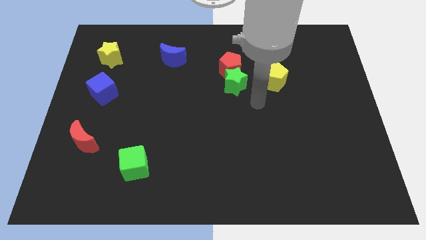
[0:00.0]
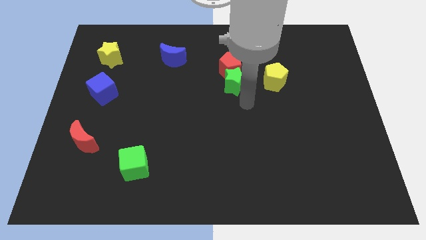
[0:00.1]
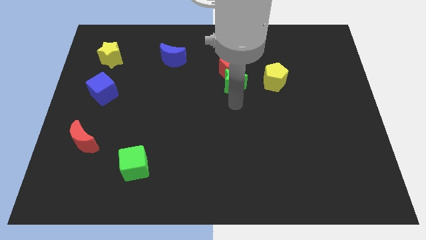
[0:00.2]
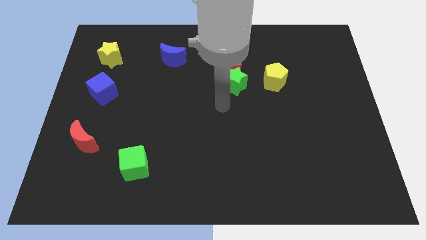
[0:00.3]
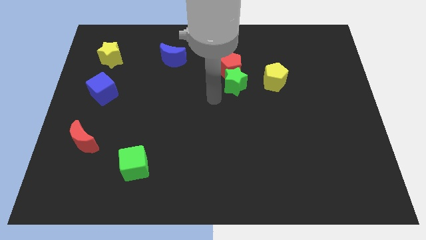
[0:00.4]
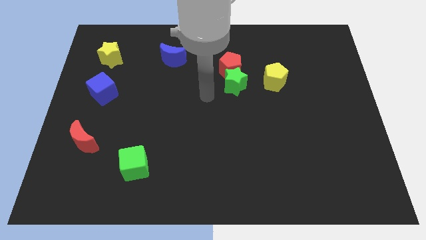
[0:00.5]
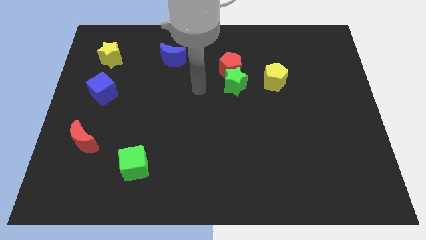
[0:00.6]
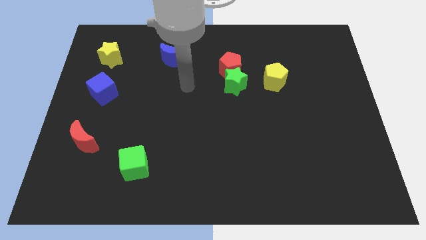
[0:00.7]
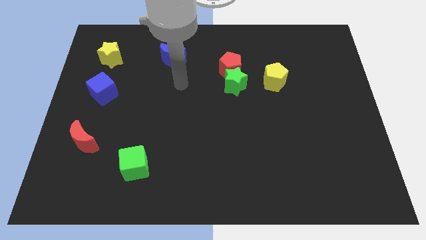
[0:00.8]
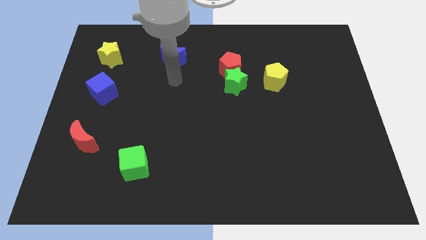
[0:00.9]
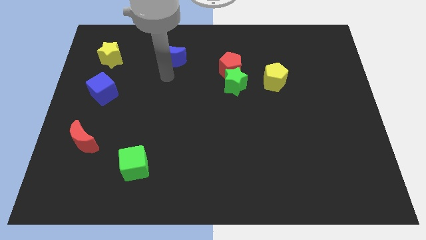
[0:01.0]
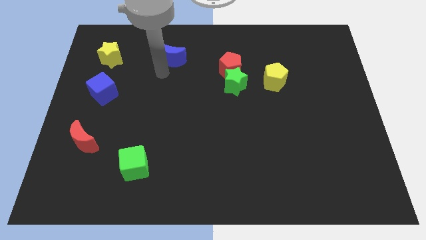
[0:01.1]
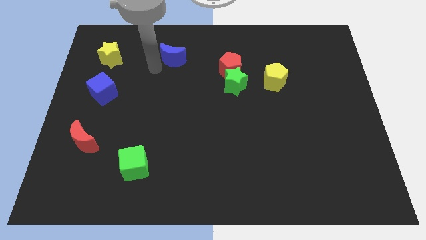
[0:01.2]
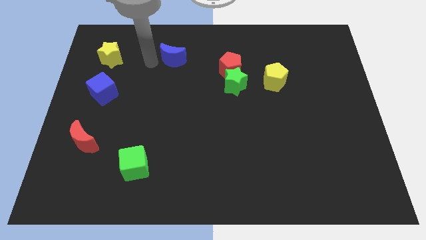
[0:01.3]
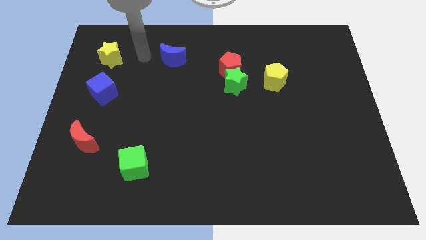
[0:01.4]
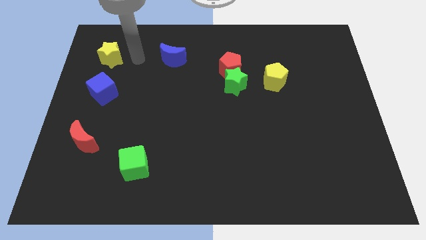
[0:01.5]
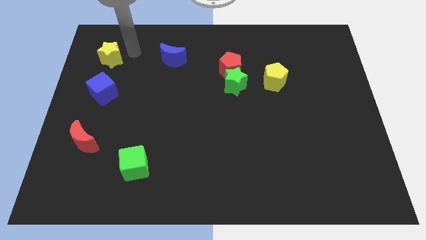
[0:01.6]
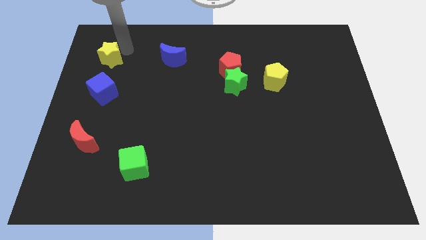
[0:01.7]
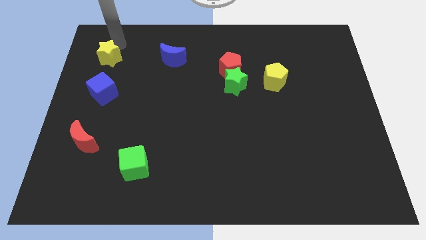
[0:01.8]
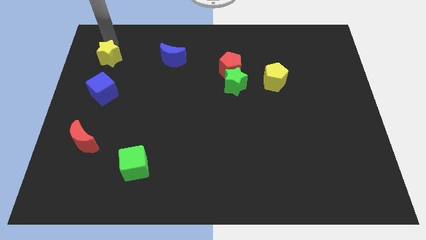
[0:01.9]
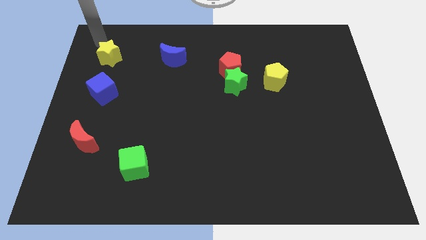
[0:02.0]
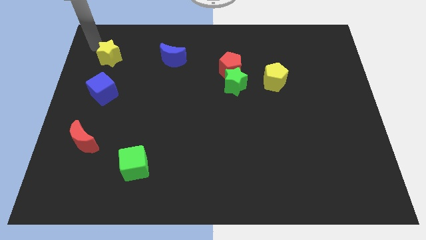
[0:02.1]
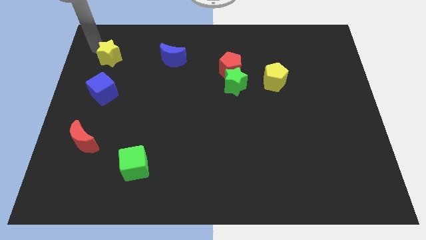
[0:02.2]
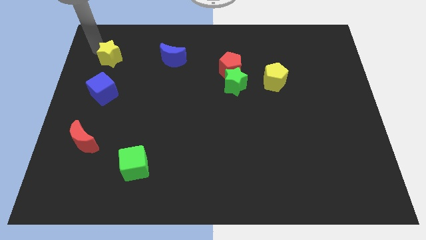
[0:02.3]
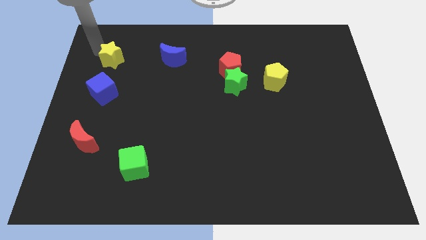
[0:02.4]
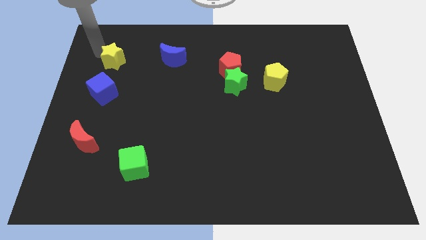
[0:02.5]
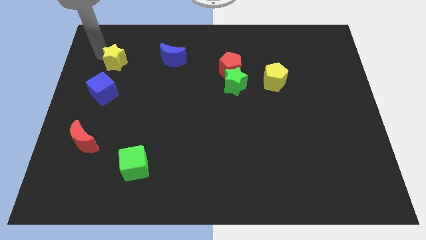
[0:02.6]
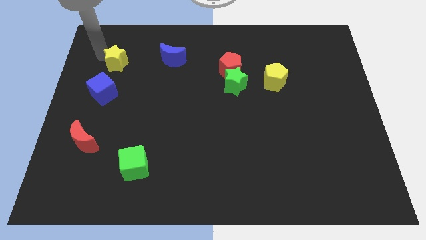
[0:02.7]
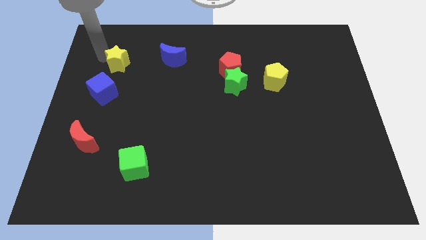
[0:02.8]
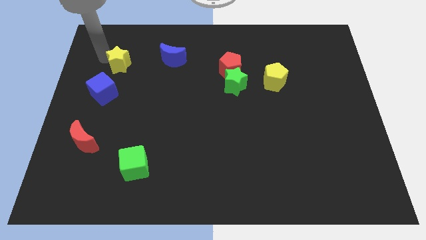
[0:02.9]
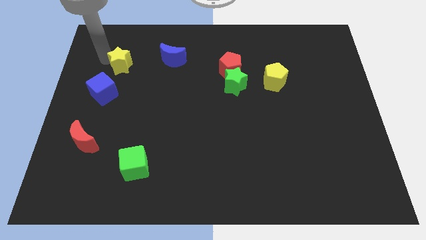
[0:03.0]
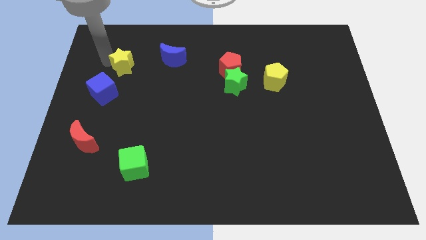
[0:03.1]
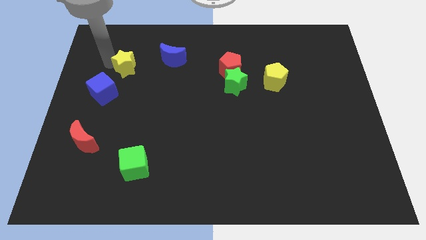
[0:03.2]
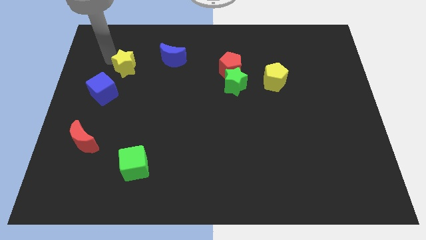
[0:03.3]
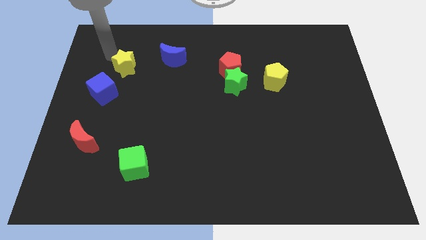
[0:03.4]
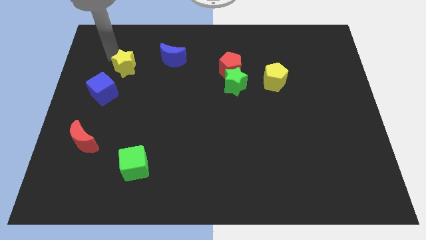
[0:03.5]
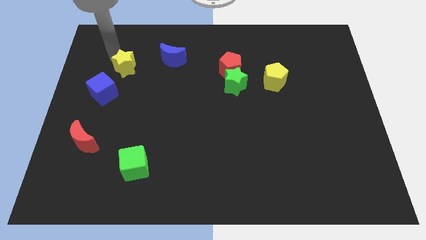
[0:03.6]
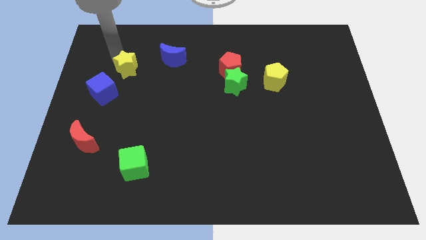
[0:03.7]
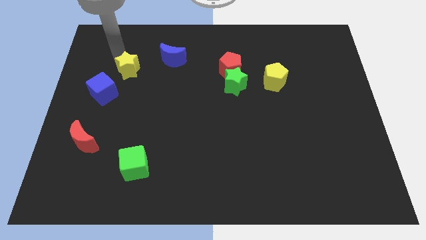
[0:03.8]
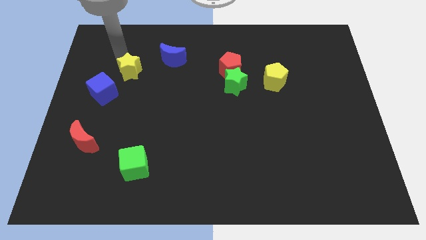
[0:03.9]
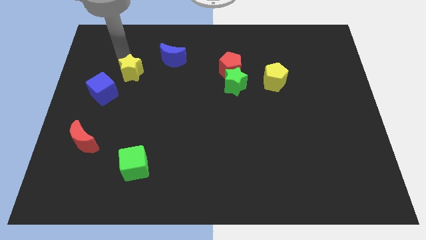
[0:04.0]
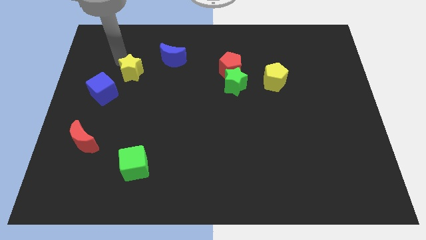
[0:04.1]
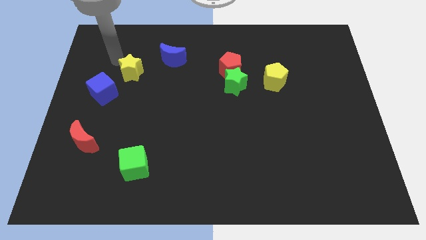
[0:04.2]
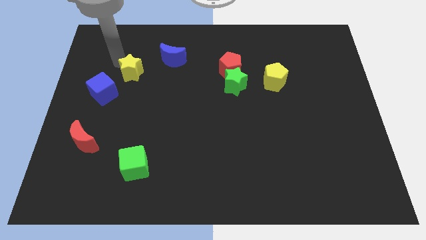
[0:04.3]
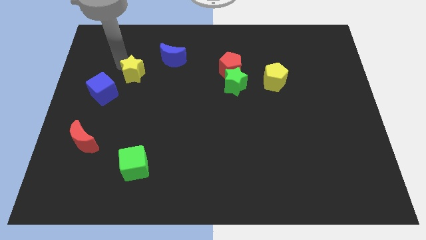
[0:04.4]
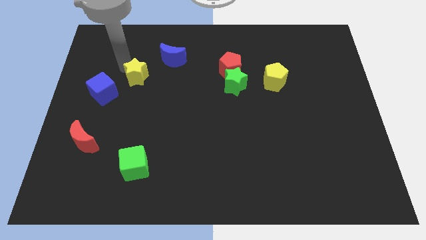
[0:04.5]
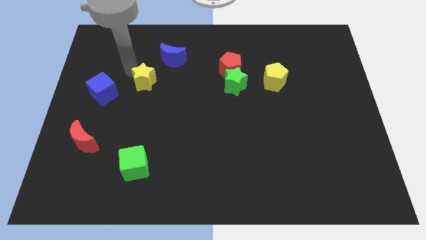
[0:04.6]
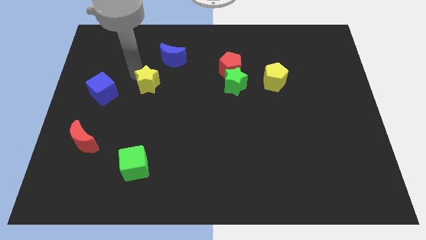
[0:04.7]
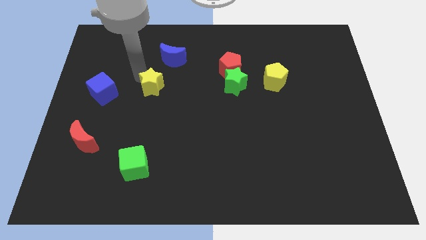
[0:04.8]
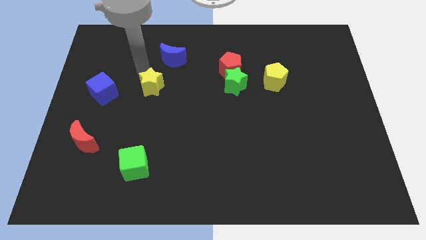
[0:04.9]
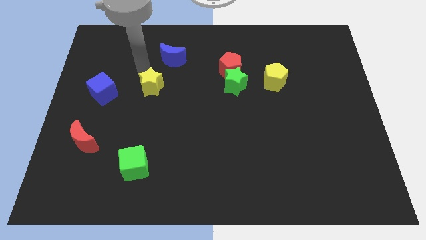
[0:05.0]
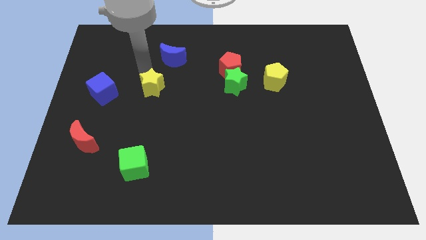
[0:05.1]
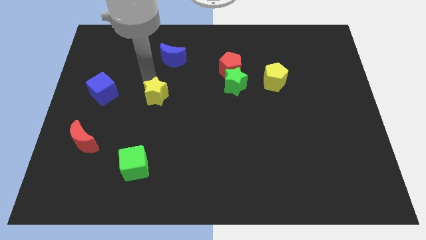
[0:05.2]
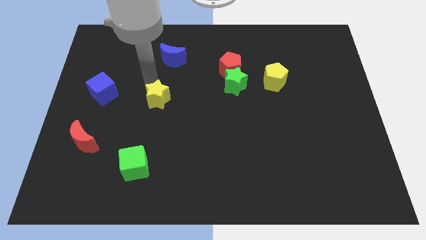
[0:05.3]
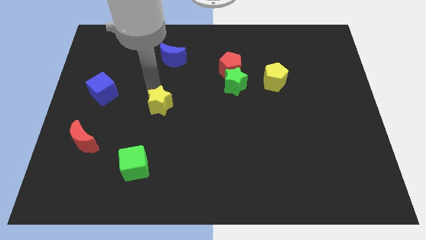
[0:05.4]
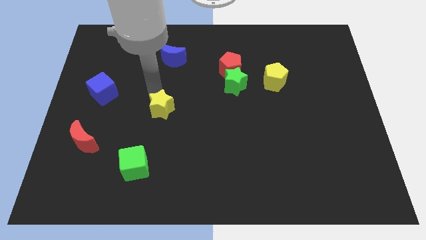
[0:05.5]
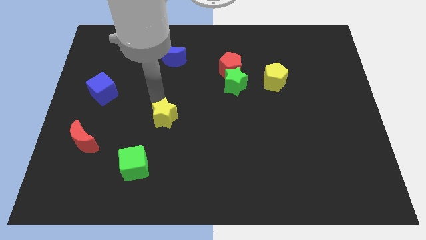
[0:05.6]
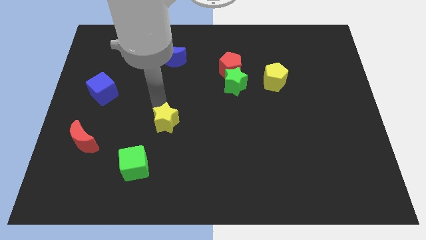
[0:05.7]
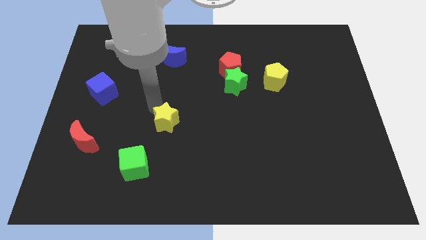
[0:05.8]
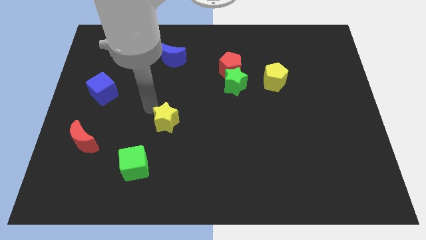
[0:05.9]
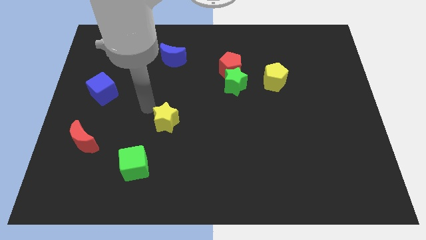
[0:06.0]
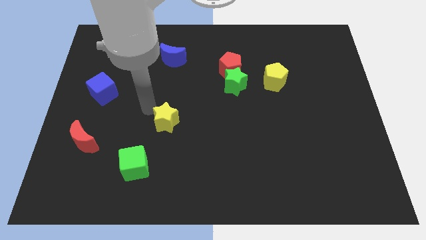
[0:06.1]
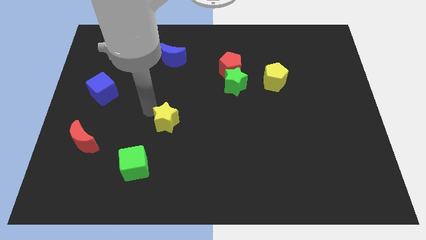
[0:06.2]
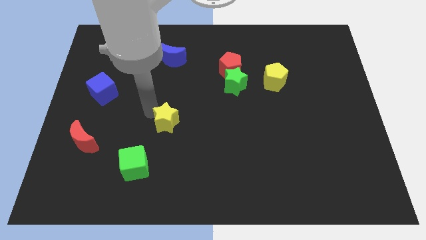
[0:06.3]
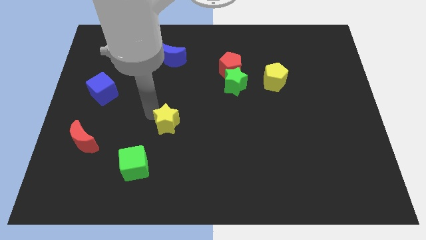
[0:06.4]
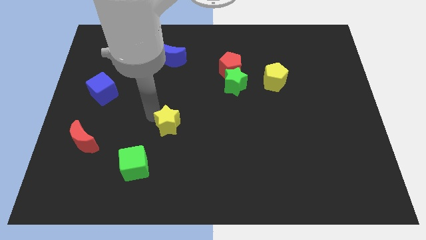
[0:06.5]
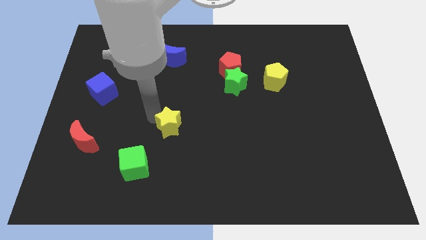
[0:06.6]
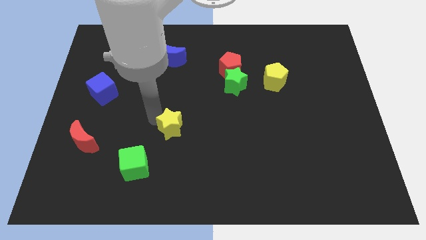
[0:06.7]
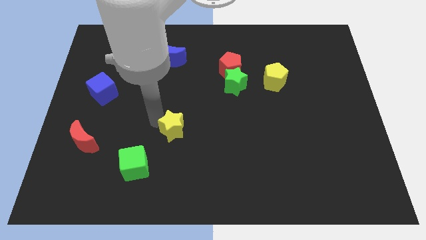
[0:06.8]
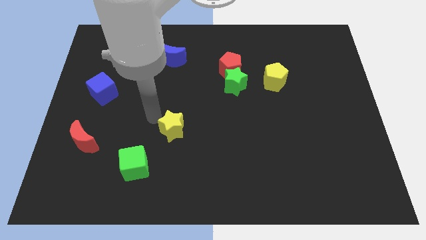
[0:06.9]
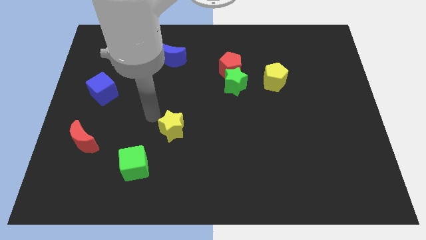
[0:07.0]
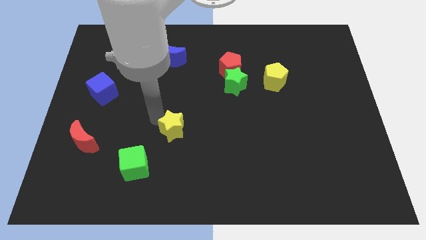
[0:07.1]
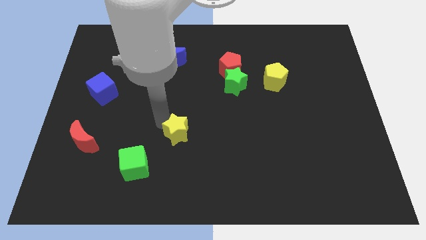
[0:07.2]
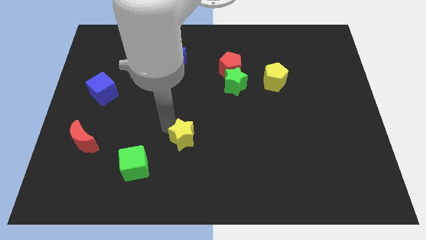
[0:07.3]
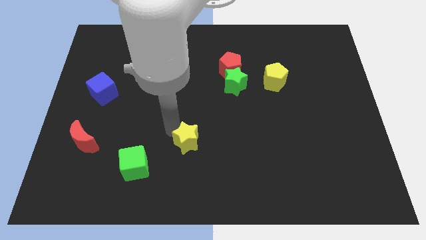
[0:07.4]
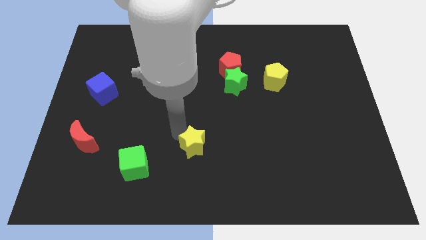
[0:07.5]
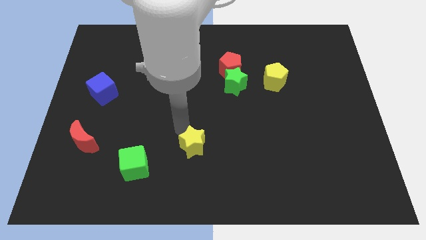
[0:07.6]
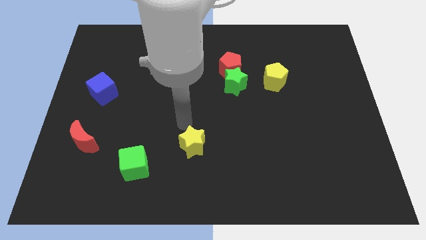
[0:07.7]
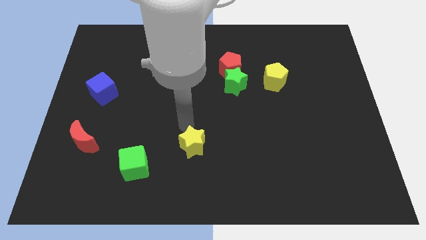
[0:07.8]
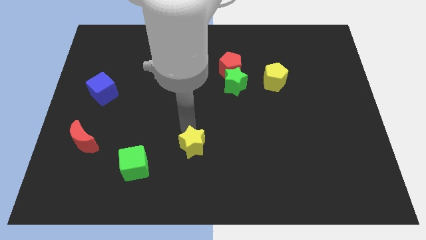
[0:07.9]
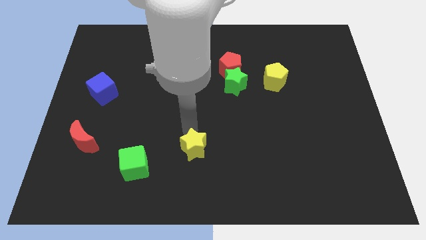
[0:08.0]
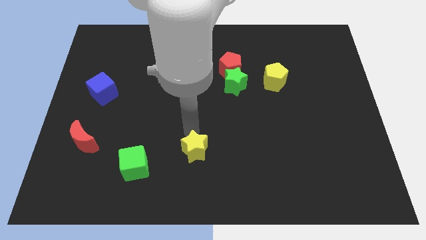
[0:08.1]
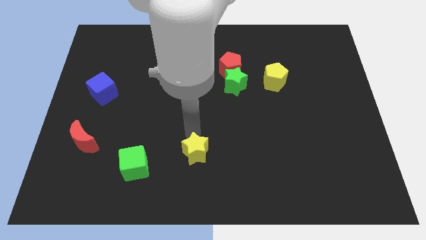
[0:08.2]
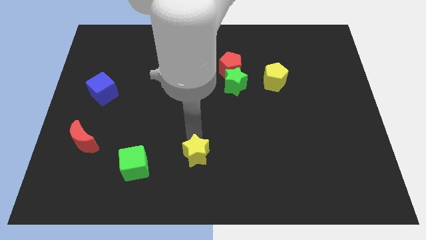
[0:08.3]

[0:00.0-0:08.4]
put the yellow star to the bottom
